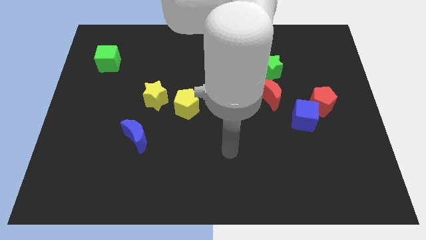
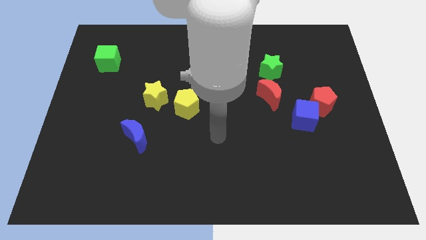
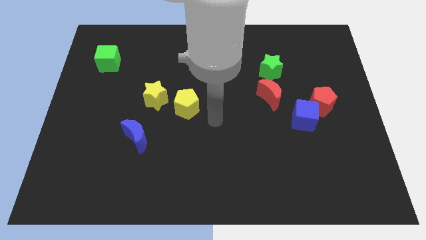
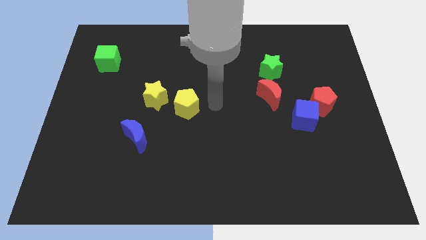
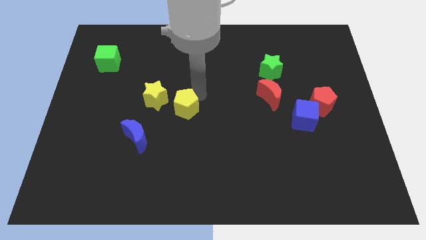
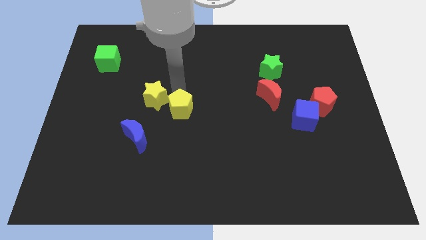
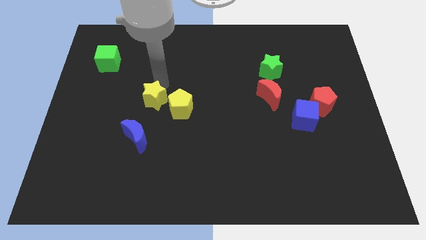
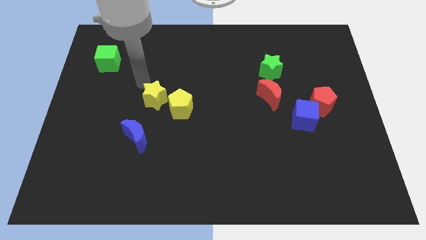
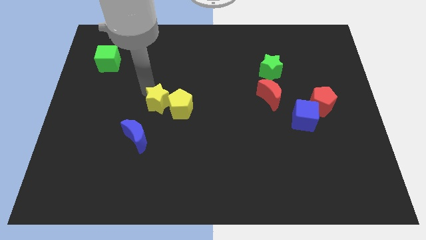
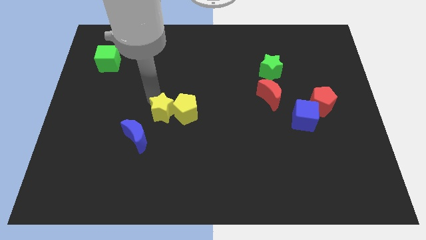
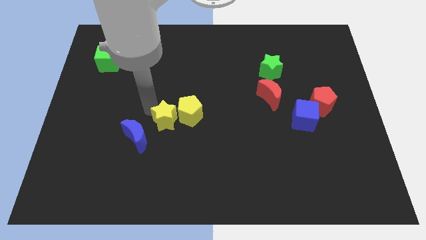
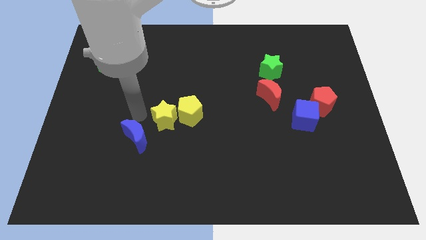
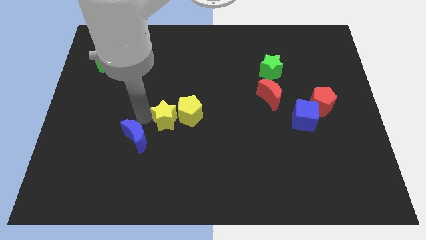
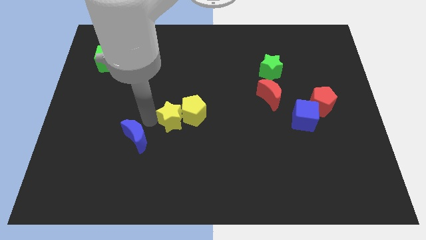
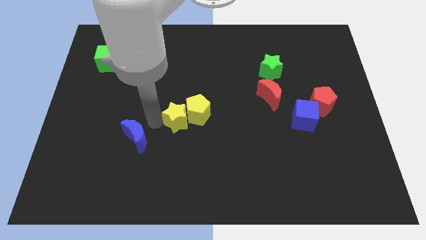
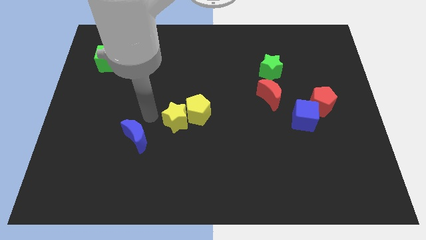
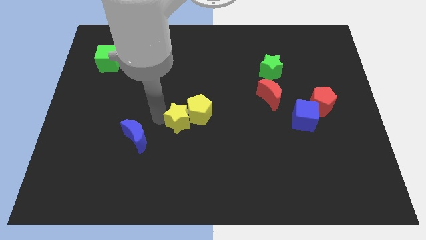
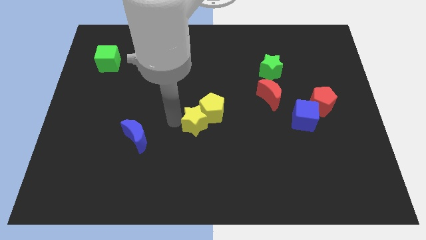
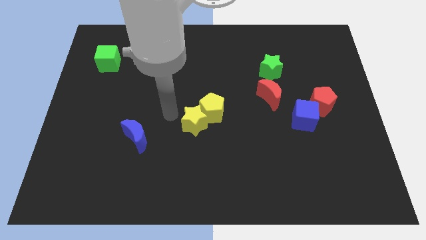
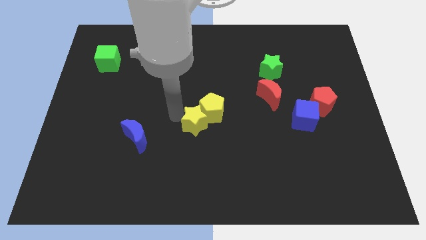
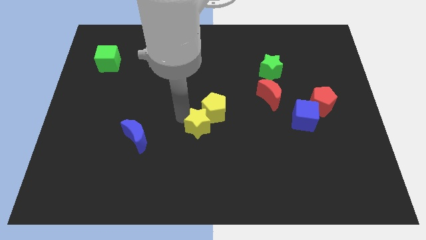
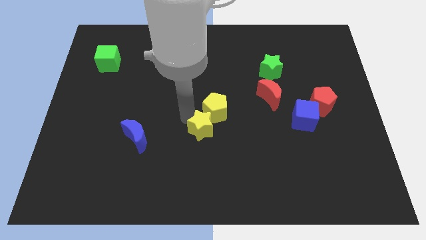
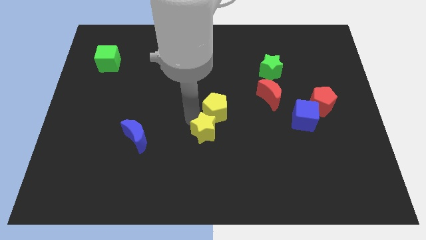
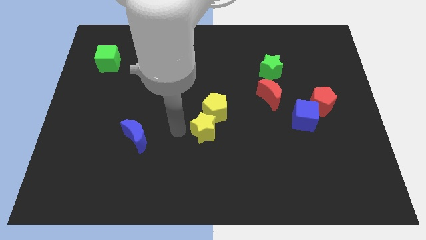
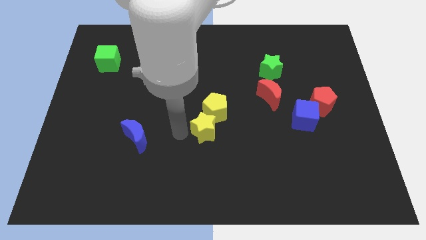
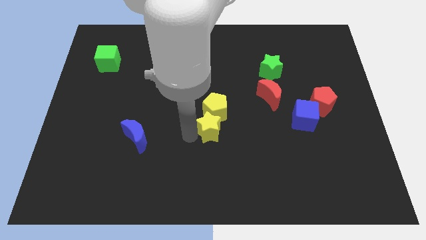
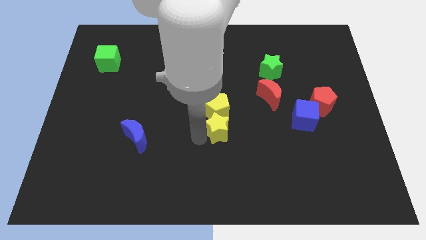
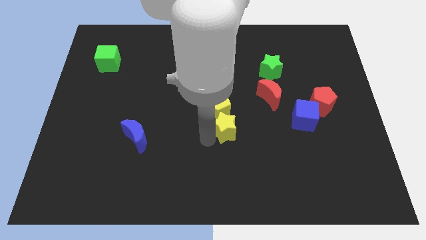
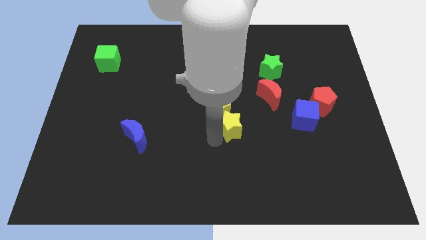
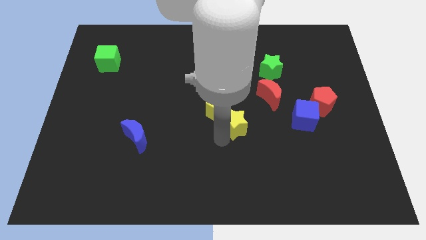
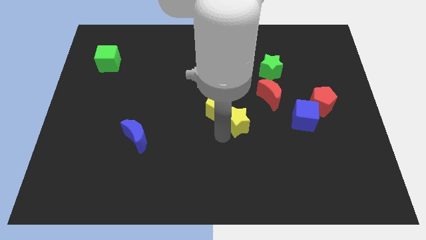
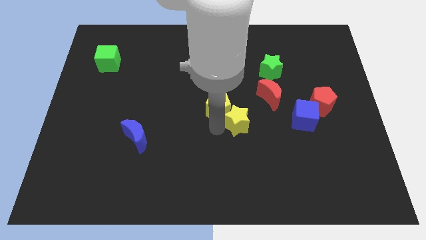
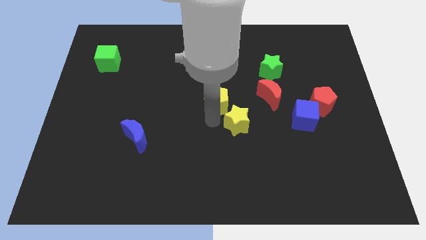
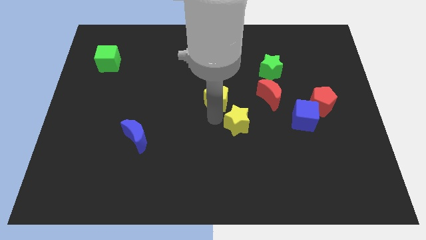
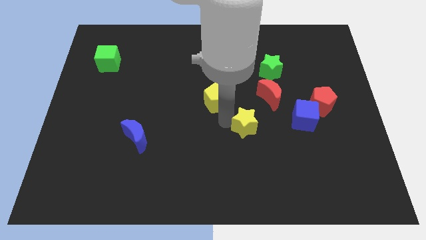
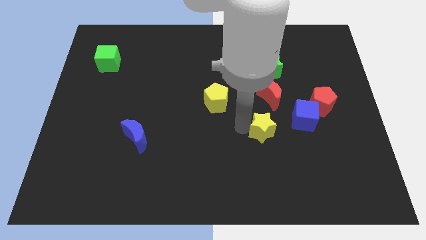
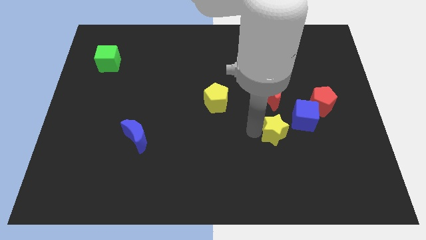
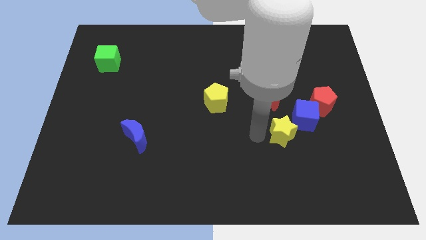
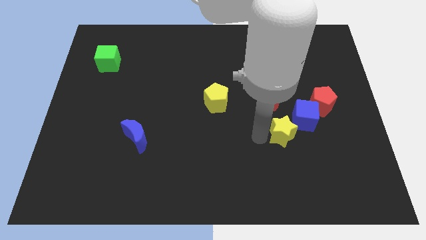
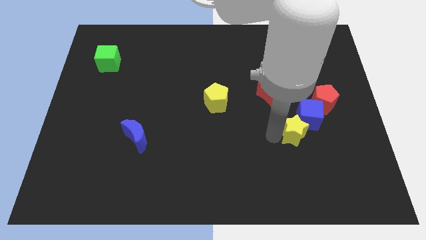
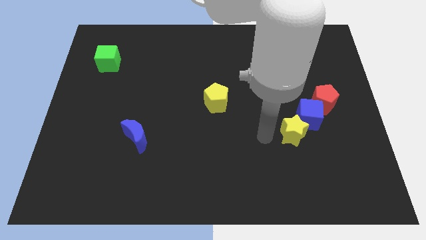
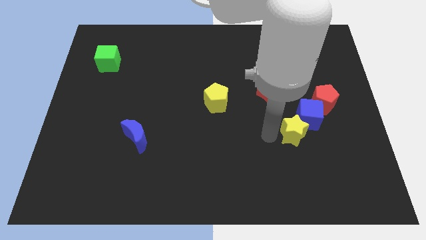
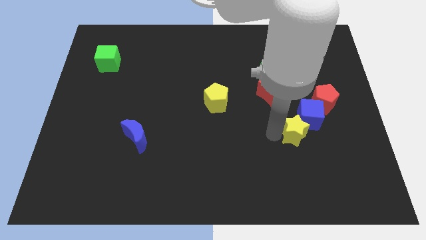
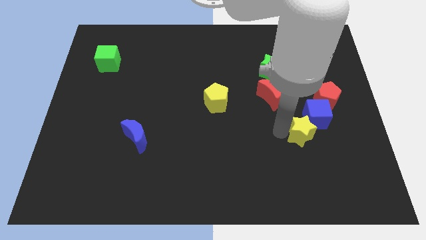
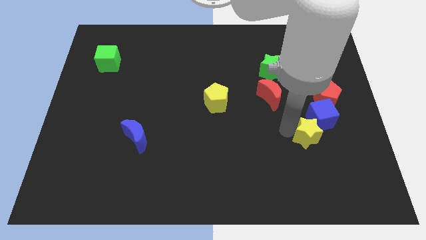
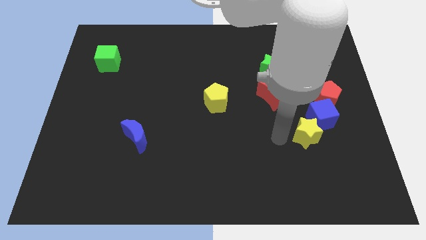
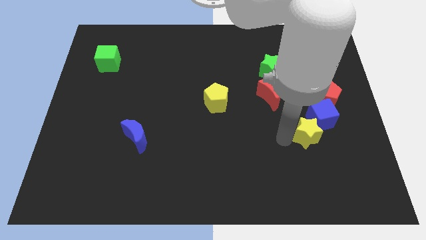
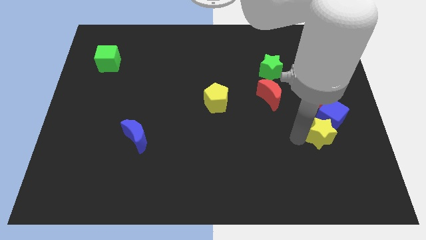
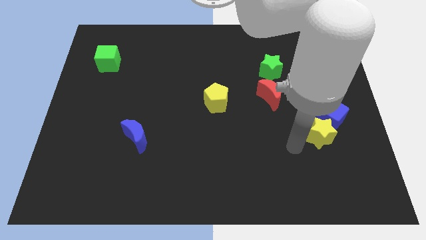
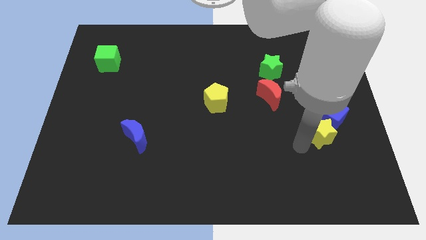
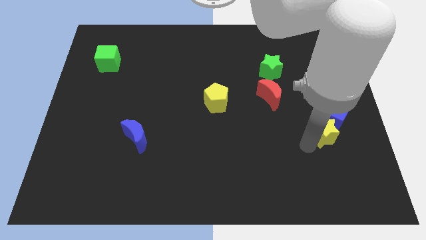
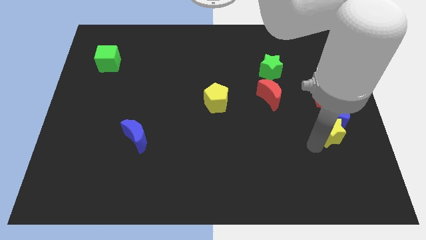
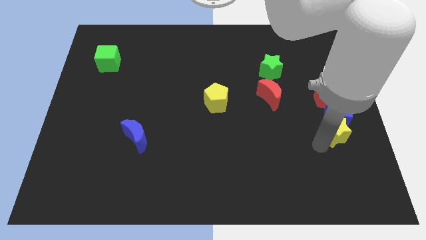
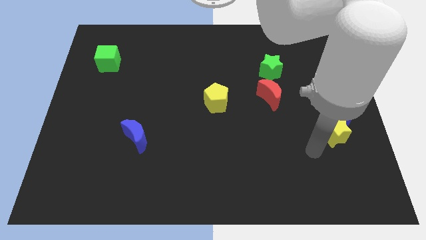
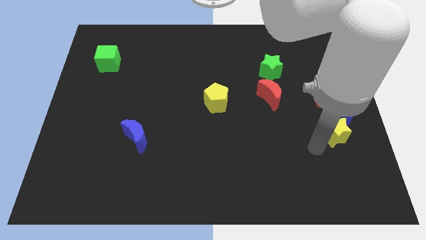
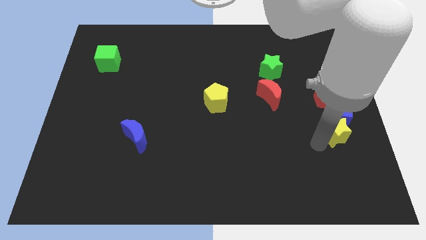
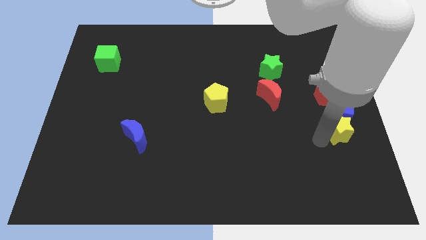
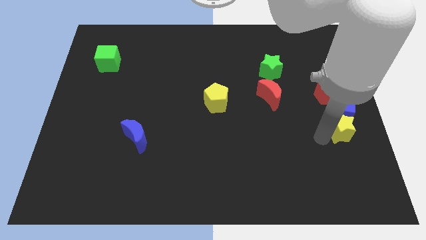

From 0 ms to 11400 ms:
push the yellow star to the right side

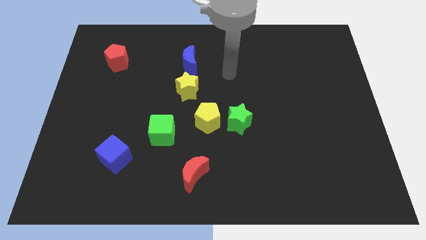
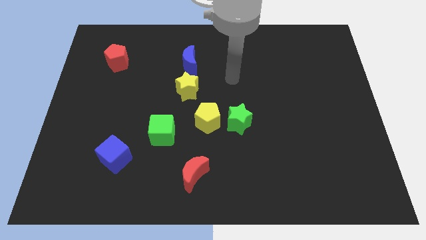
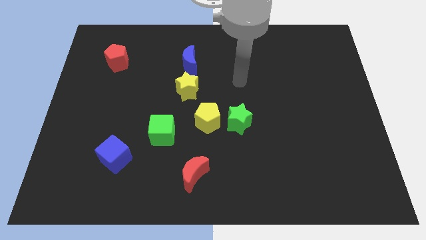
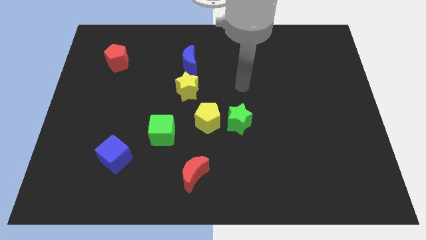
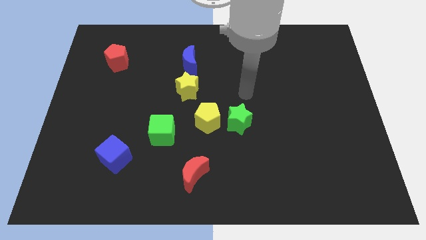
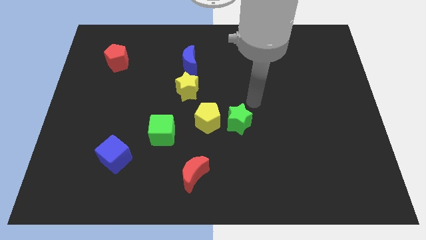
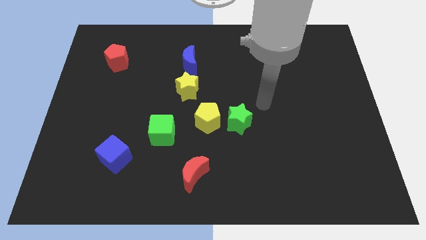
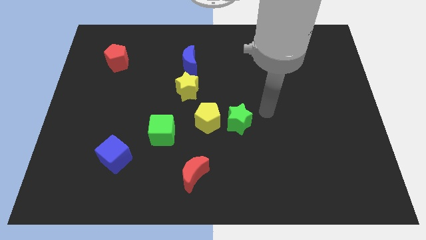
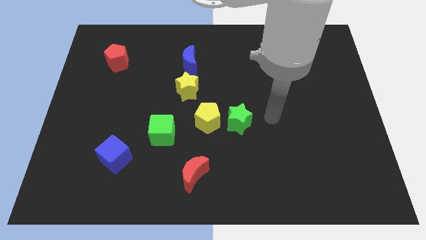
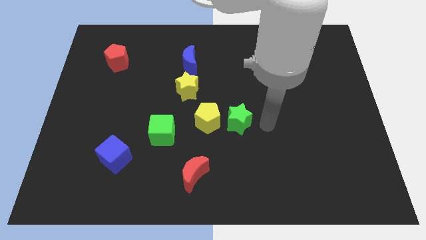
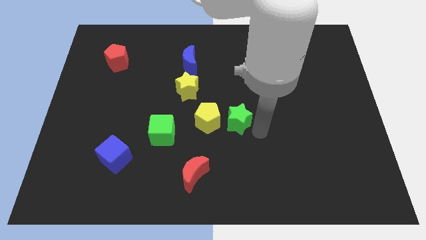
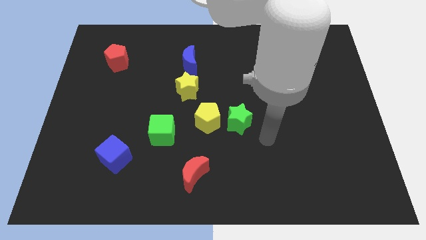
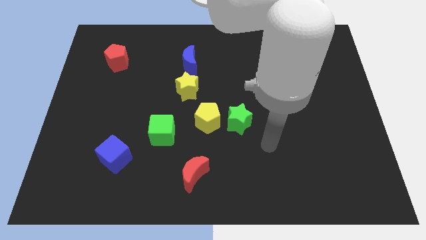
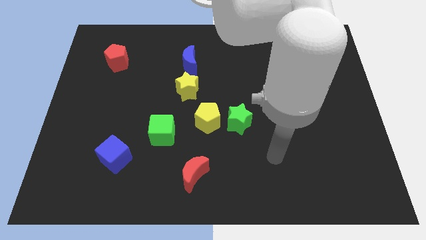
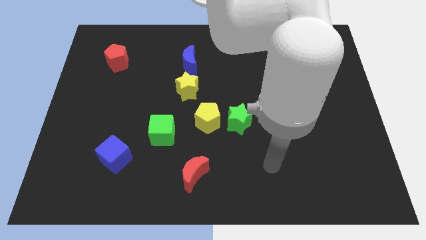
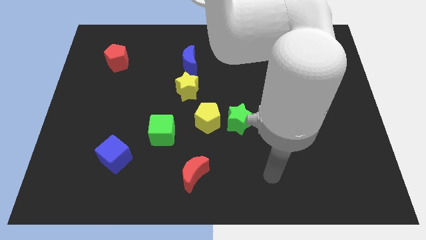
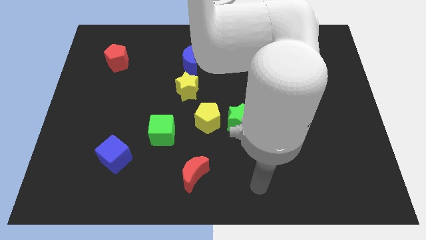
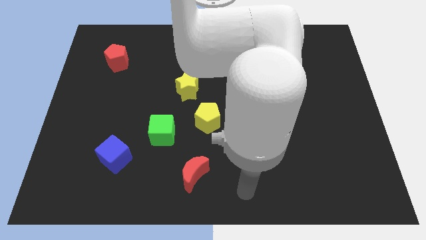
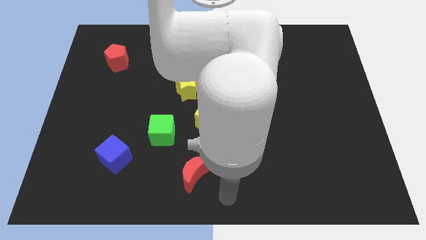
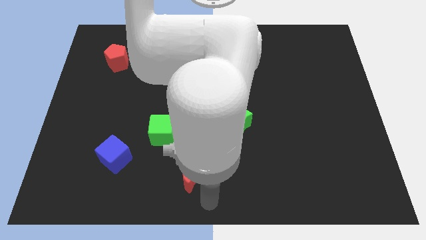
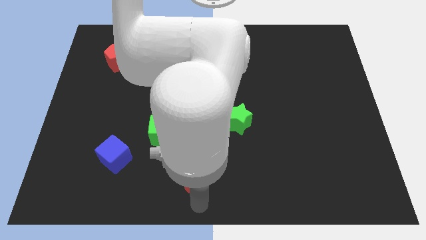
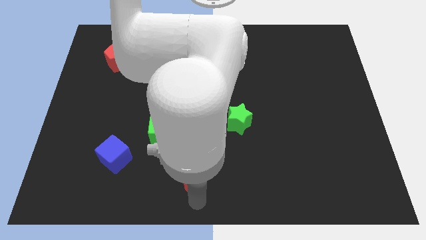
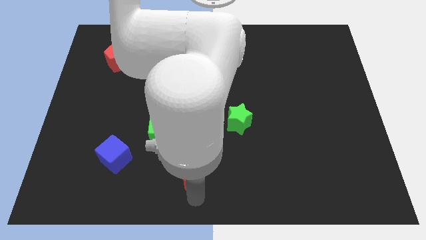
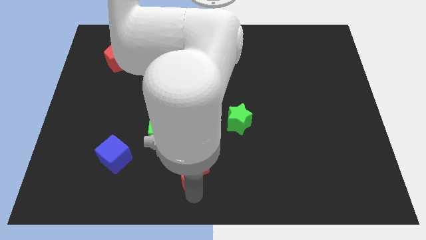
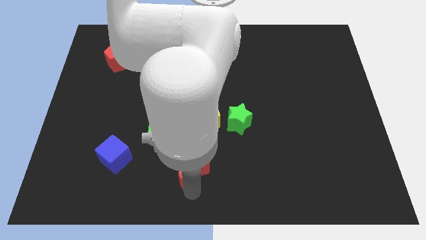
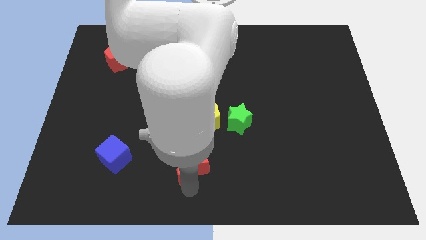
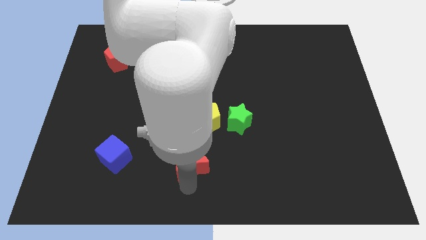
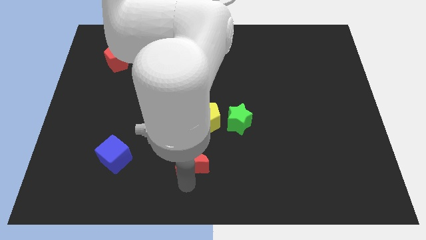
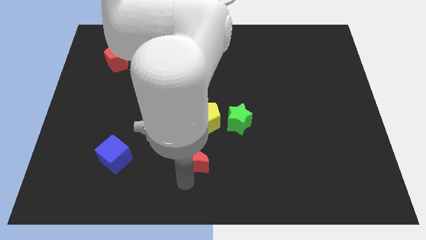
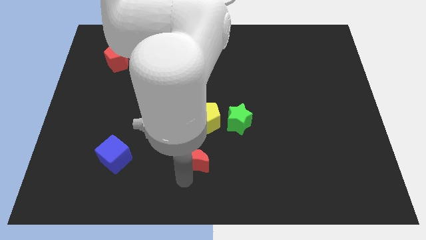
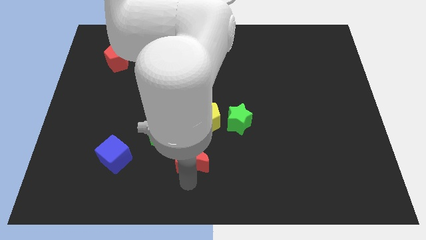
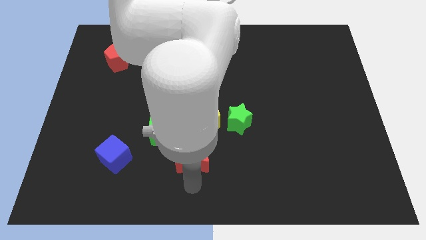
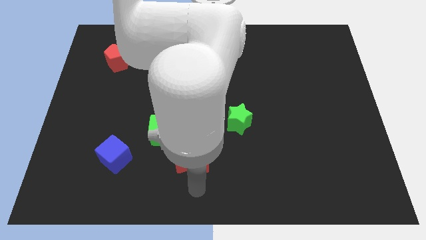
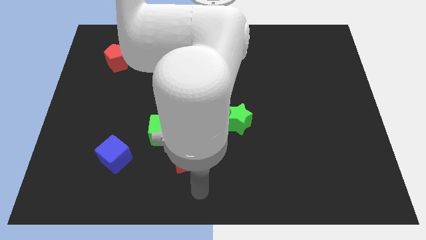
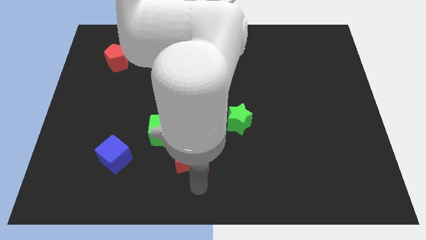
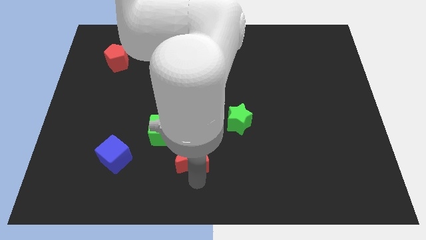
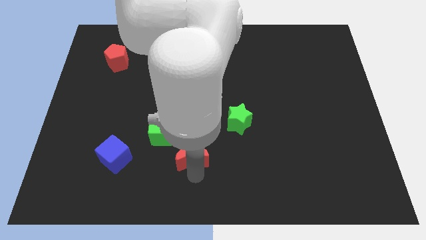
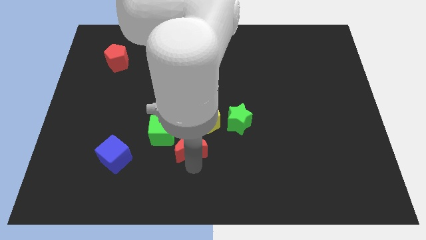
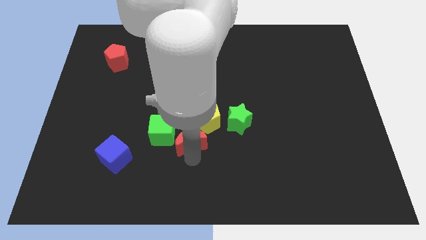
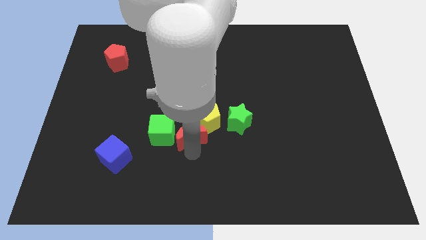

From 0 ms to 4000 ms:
push the red moon to the center of the board
